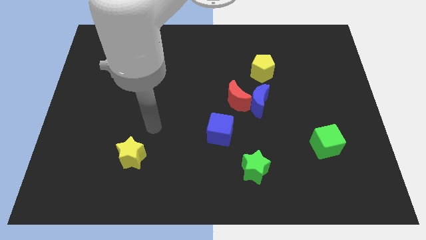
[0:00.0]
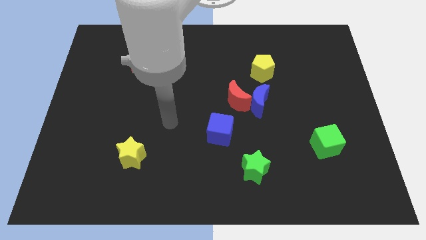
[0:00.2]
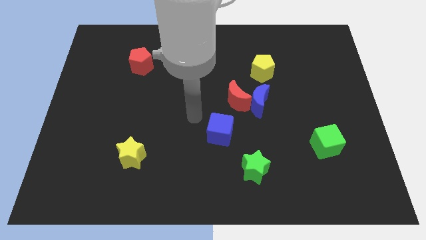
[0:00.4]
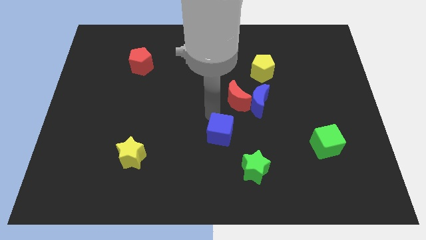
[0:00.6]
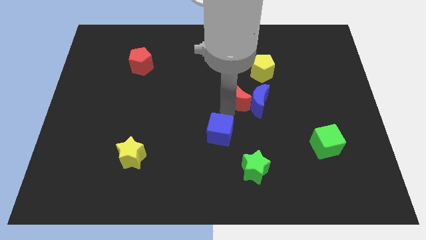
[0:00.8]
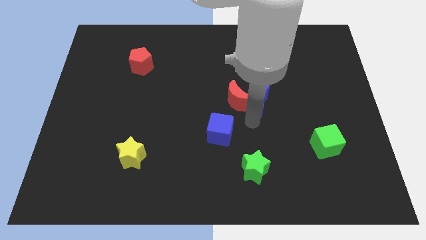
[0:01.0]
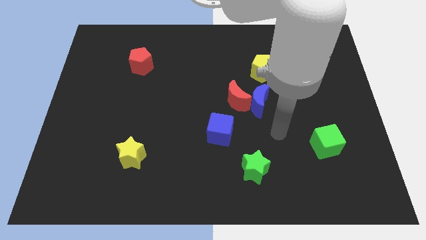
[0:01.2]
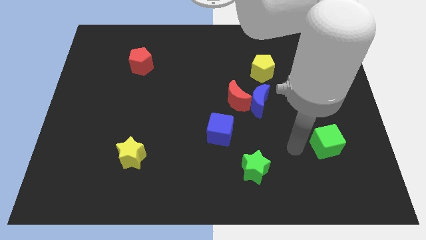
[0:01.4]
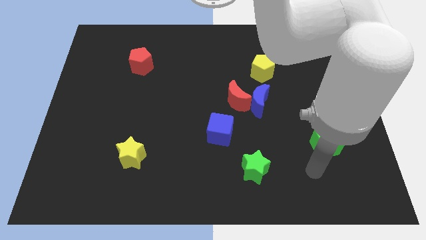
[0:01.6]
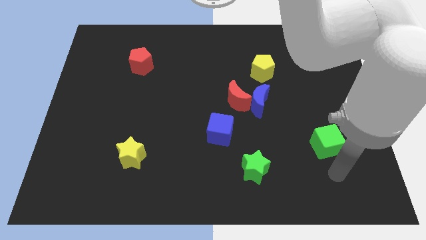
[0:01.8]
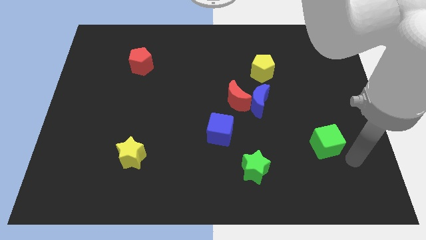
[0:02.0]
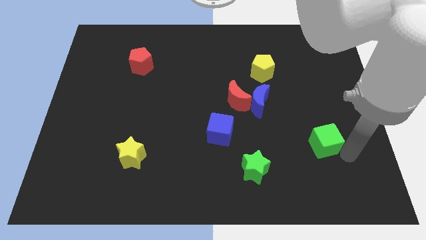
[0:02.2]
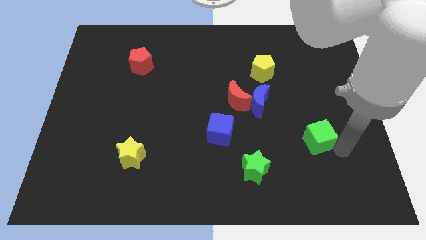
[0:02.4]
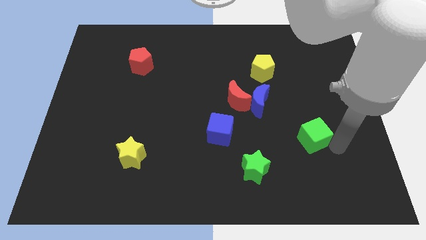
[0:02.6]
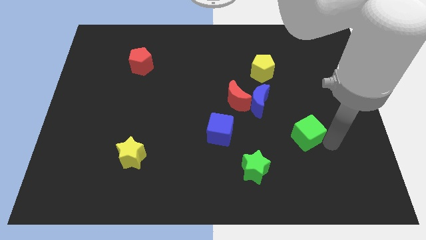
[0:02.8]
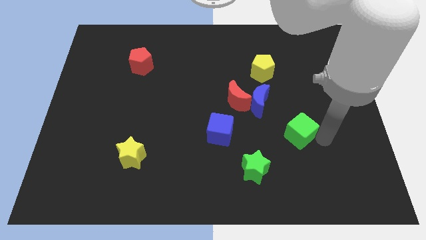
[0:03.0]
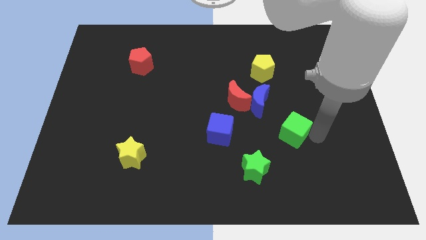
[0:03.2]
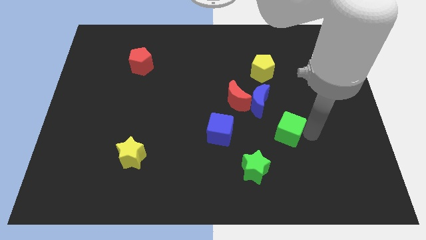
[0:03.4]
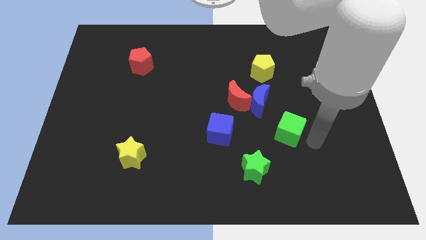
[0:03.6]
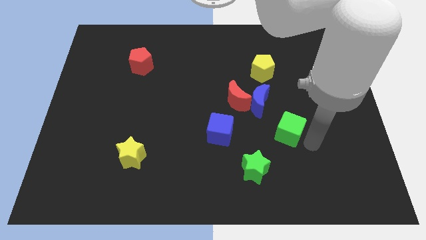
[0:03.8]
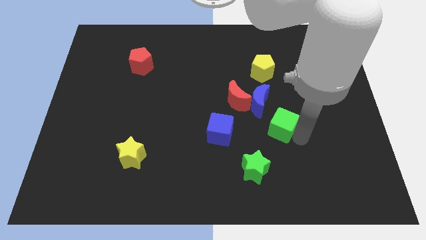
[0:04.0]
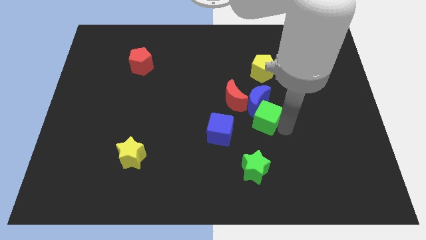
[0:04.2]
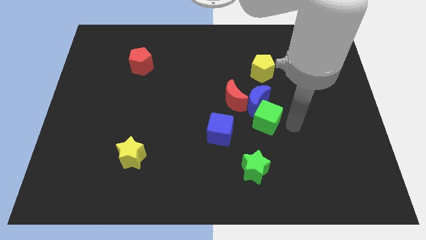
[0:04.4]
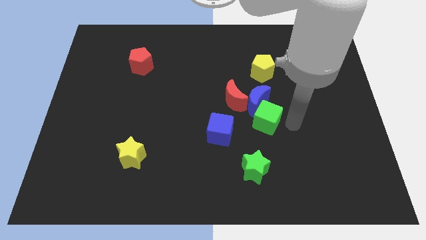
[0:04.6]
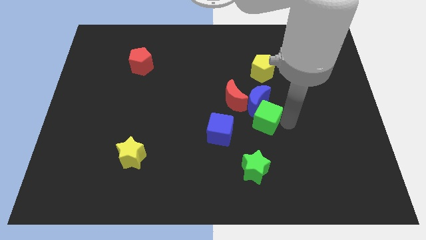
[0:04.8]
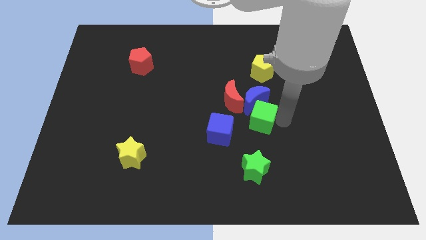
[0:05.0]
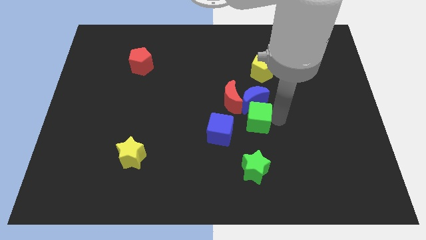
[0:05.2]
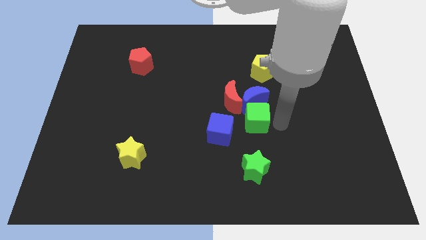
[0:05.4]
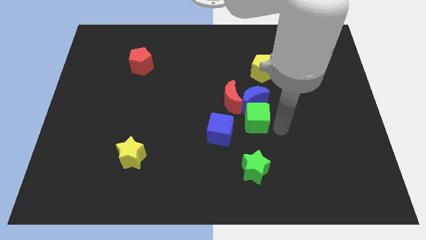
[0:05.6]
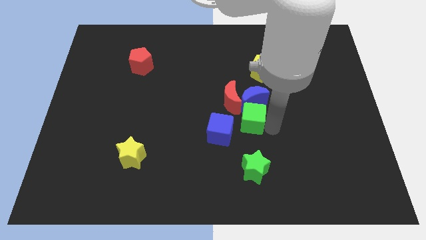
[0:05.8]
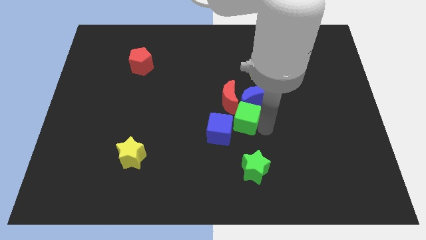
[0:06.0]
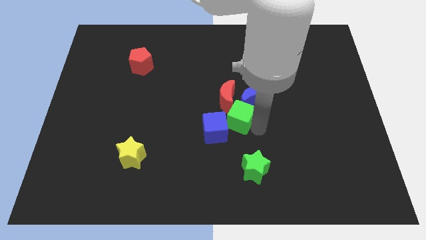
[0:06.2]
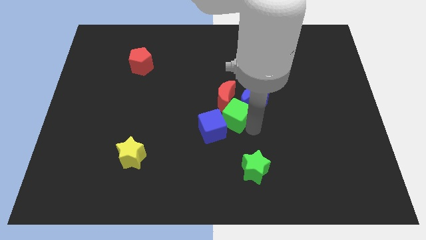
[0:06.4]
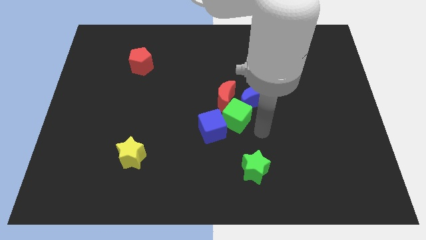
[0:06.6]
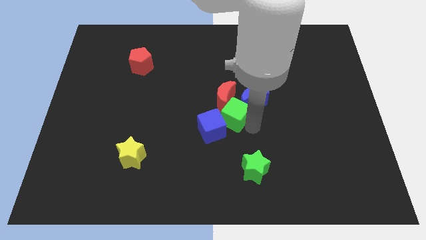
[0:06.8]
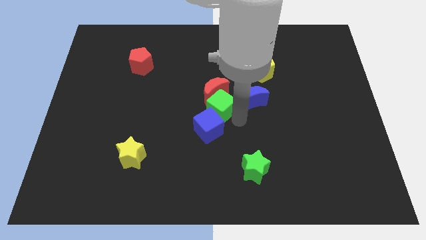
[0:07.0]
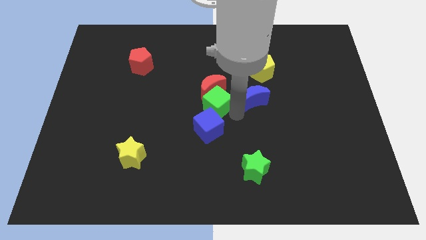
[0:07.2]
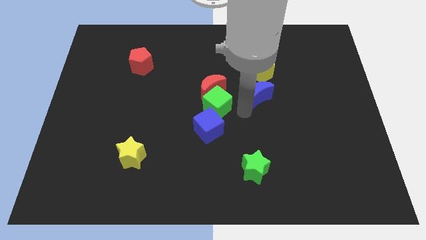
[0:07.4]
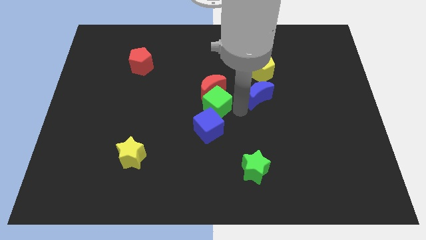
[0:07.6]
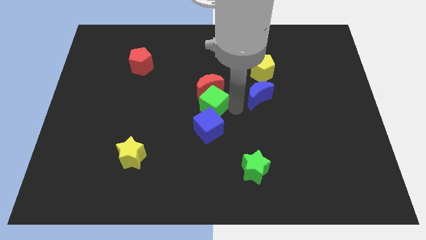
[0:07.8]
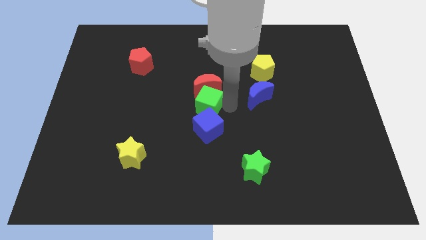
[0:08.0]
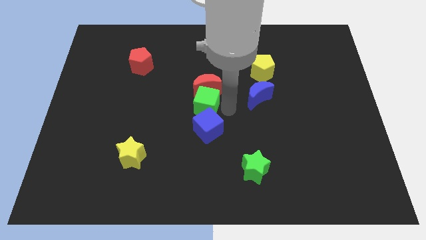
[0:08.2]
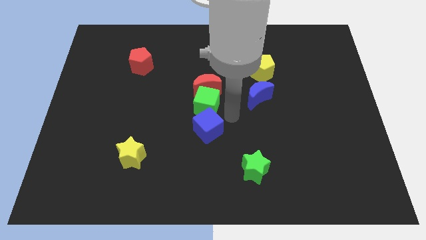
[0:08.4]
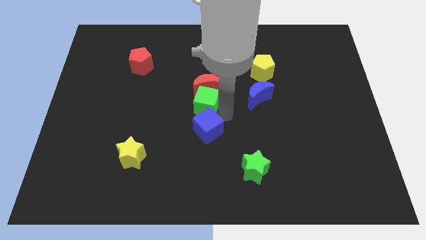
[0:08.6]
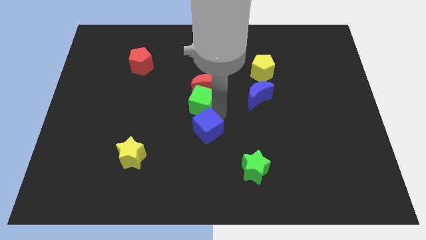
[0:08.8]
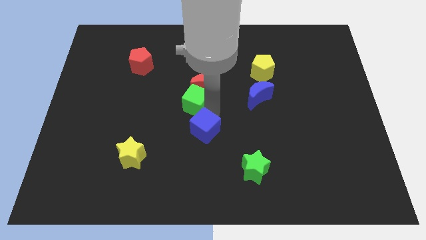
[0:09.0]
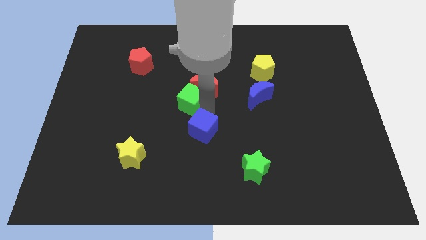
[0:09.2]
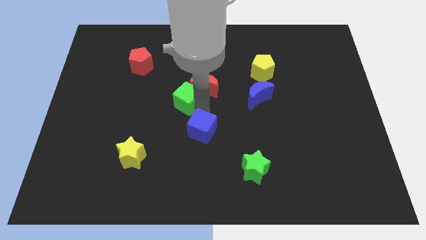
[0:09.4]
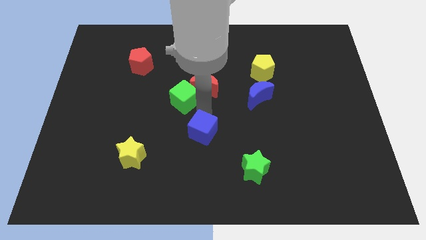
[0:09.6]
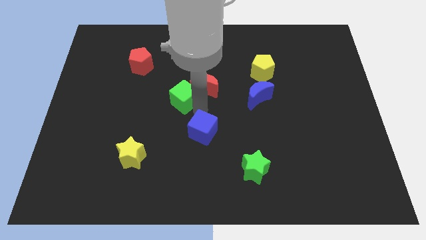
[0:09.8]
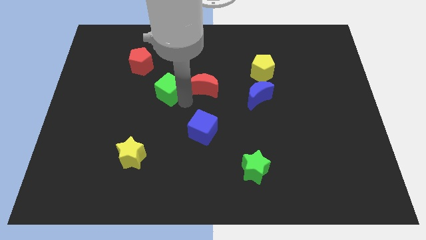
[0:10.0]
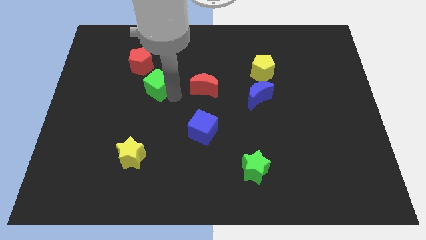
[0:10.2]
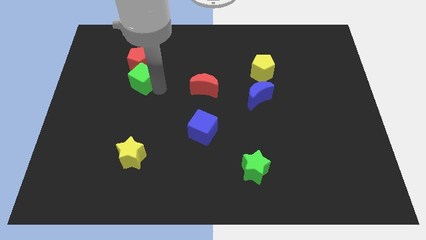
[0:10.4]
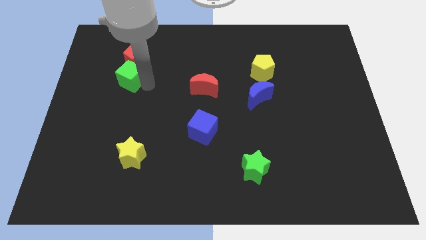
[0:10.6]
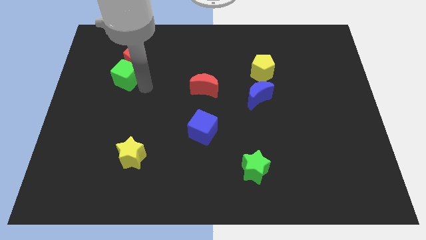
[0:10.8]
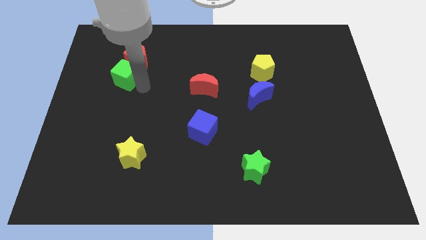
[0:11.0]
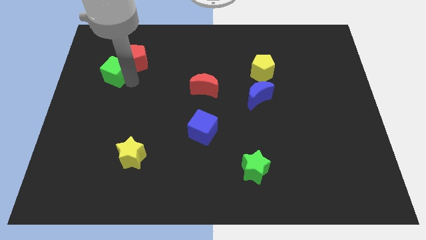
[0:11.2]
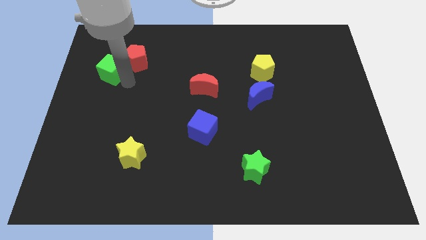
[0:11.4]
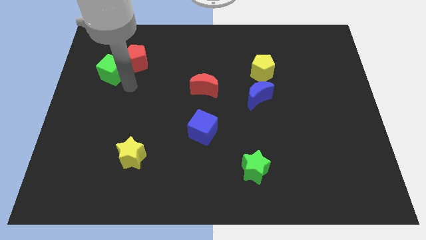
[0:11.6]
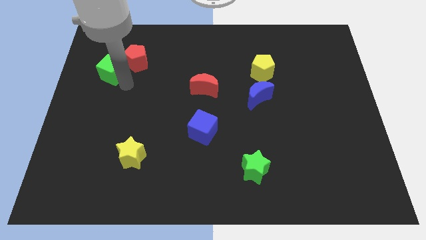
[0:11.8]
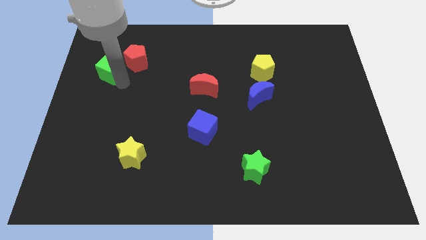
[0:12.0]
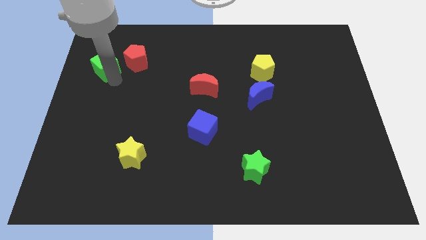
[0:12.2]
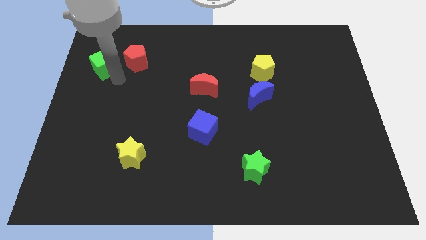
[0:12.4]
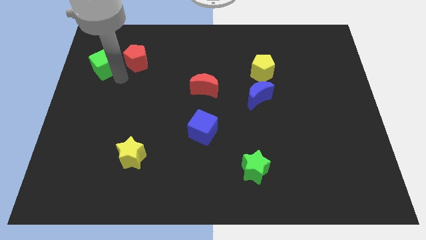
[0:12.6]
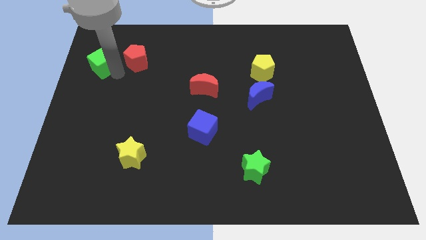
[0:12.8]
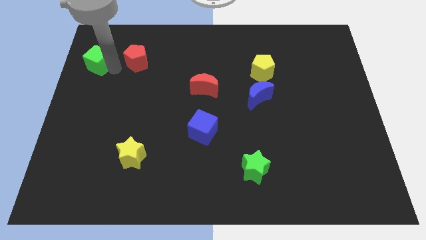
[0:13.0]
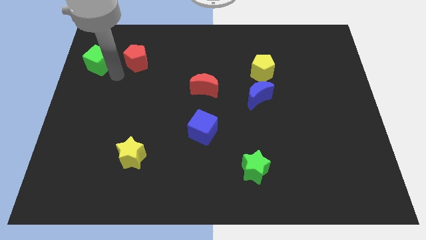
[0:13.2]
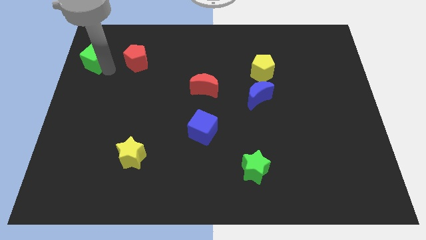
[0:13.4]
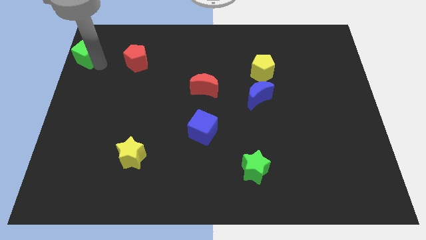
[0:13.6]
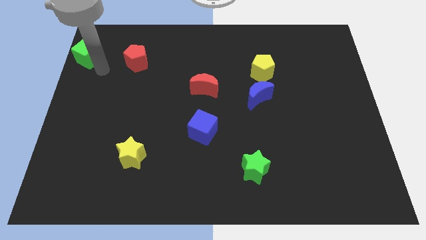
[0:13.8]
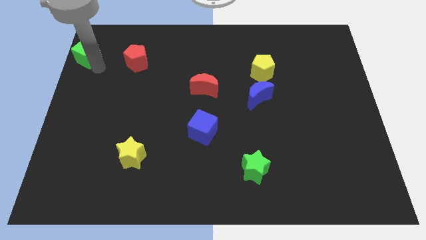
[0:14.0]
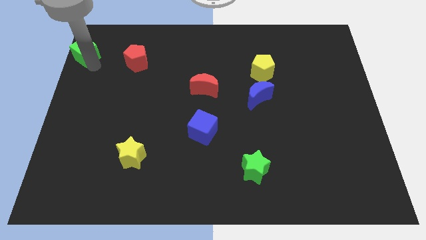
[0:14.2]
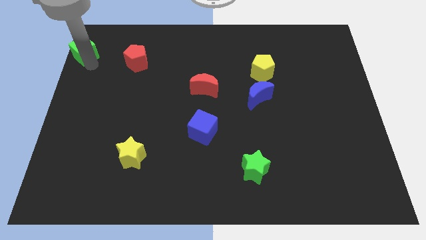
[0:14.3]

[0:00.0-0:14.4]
push the green cube to the upper left corner
